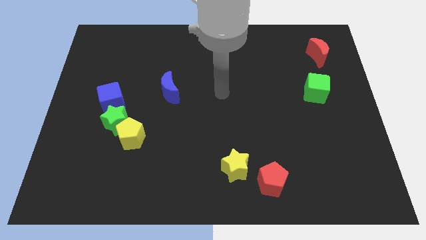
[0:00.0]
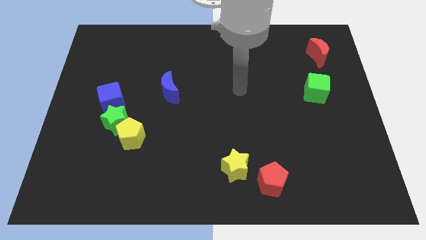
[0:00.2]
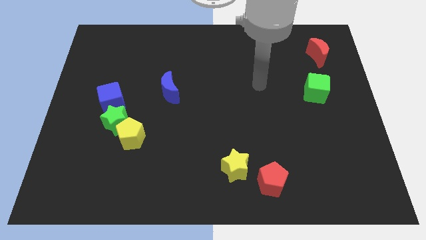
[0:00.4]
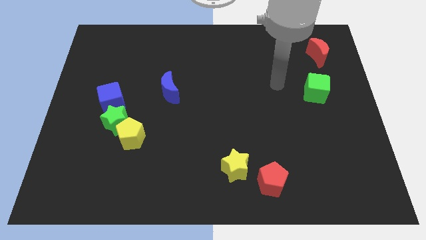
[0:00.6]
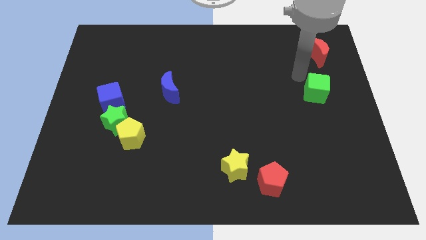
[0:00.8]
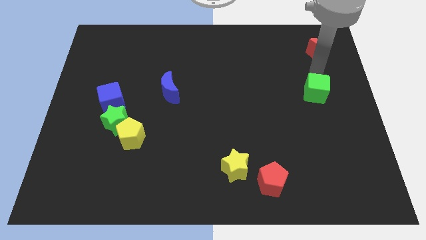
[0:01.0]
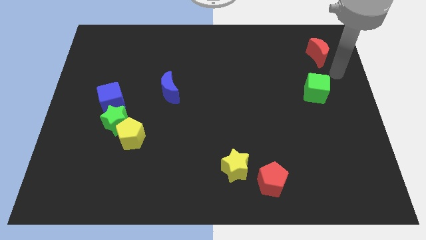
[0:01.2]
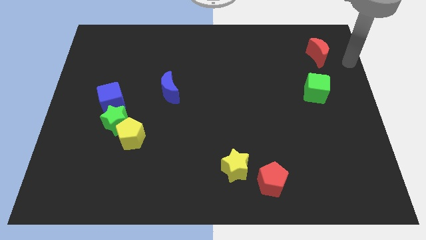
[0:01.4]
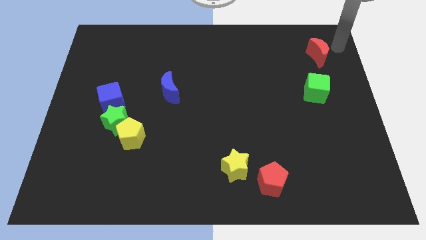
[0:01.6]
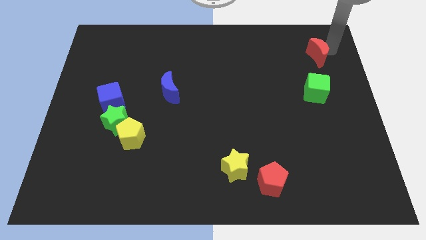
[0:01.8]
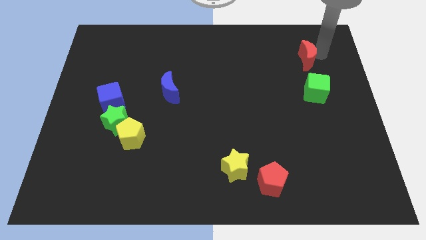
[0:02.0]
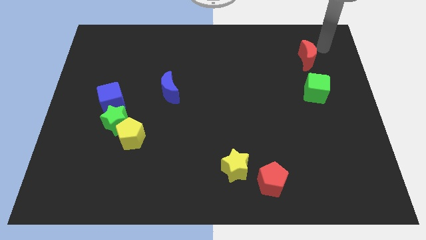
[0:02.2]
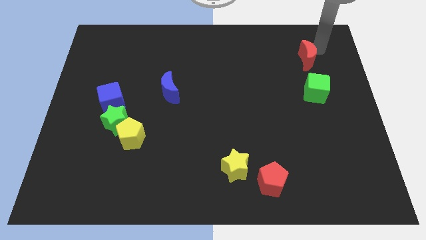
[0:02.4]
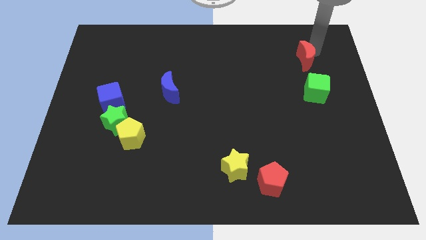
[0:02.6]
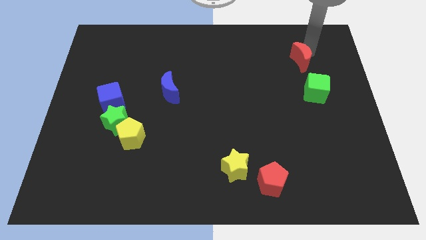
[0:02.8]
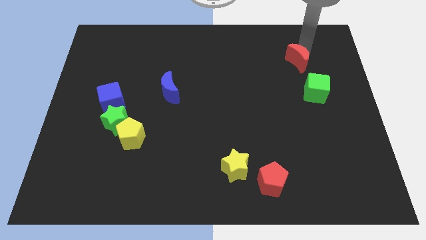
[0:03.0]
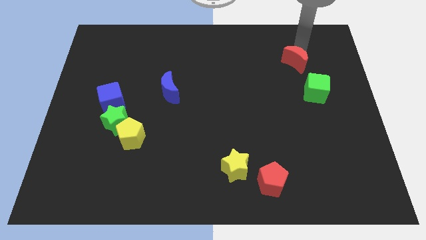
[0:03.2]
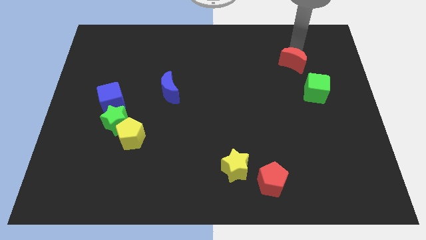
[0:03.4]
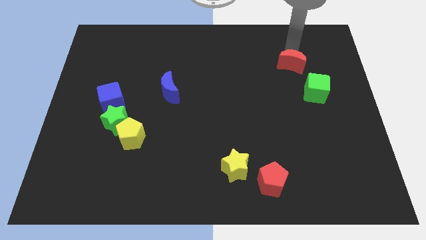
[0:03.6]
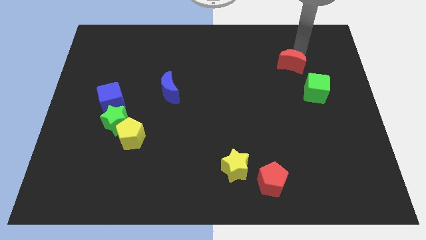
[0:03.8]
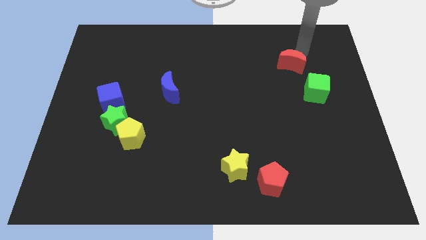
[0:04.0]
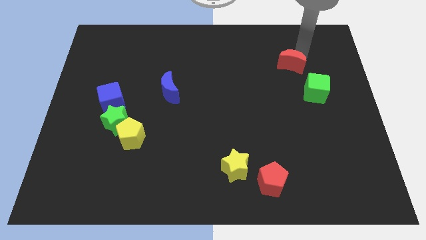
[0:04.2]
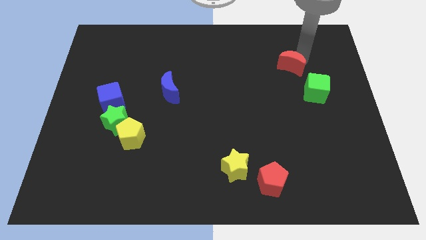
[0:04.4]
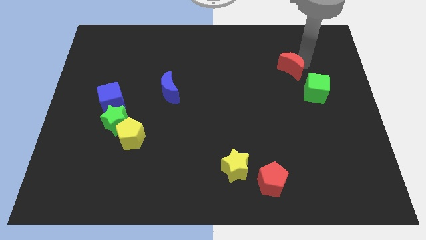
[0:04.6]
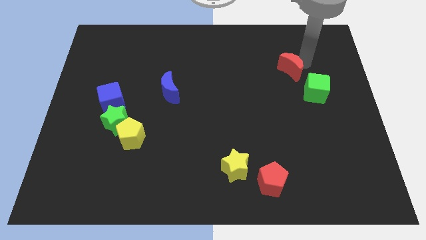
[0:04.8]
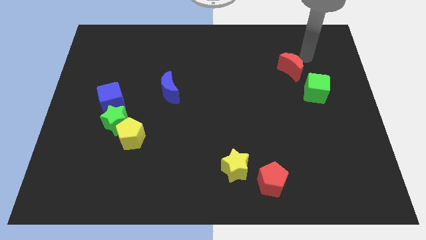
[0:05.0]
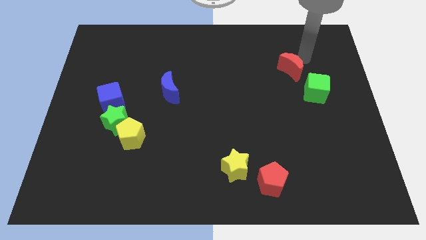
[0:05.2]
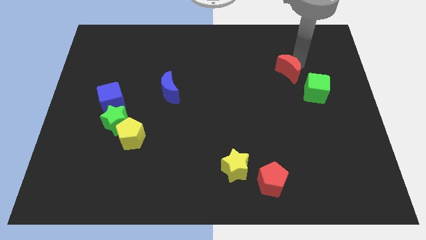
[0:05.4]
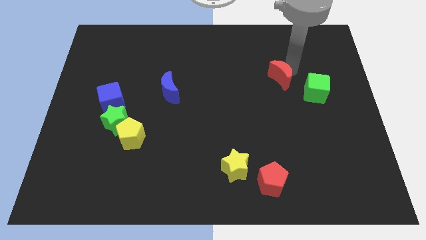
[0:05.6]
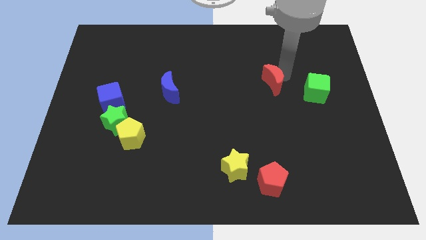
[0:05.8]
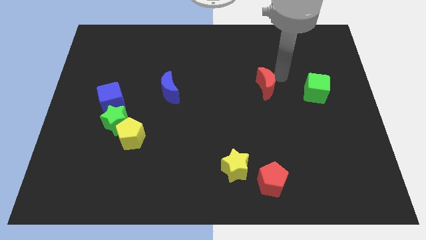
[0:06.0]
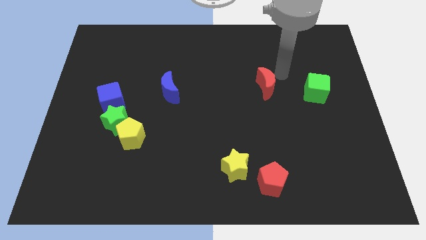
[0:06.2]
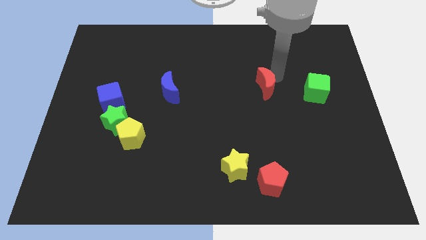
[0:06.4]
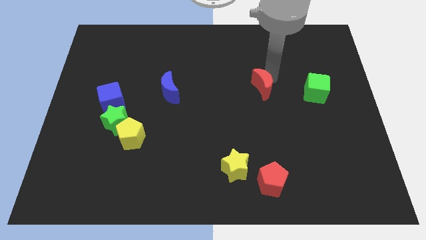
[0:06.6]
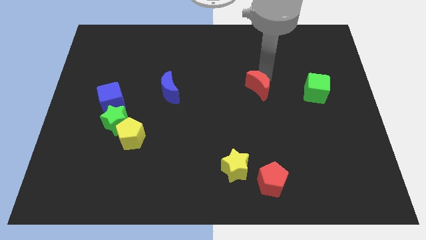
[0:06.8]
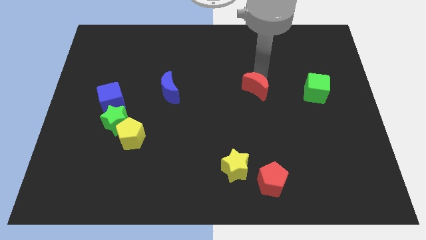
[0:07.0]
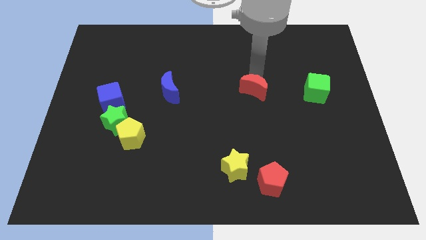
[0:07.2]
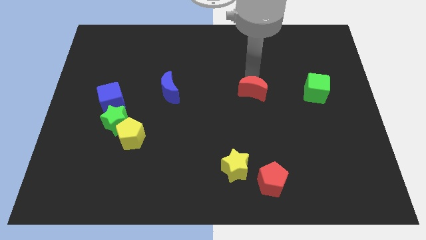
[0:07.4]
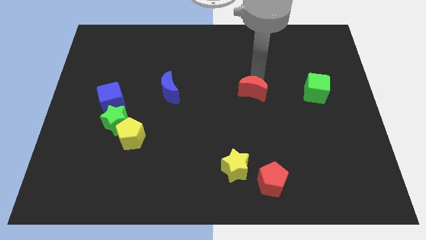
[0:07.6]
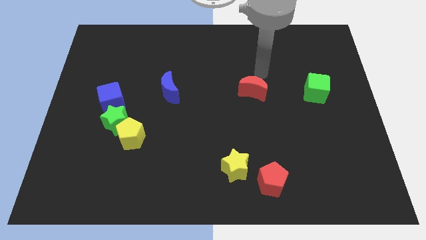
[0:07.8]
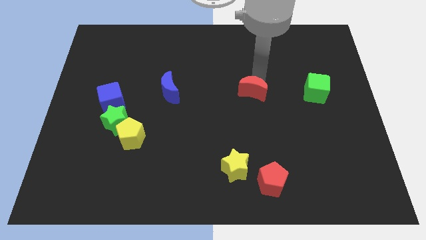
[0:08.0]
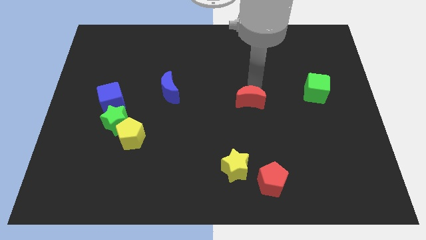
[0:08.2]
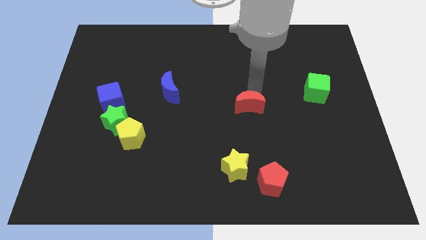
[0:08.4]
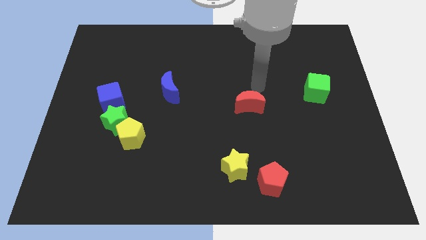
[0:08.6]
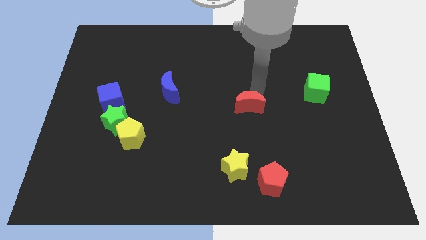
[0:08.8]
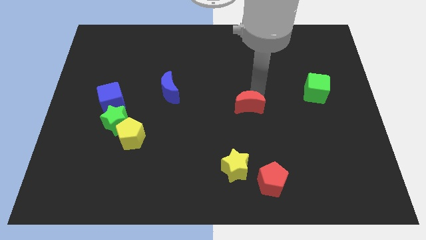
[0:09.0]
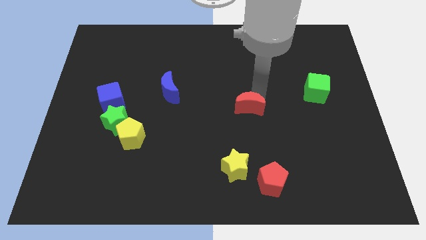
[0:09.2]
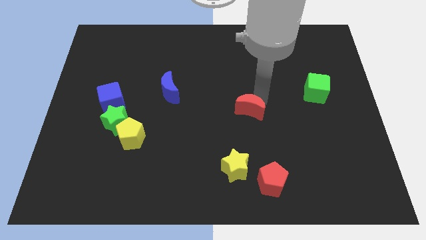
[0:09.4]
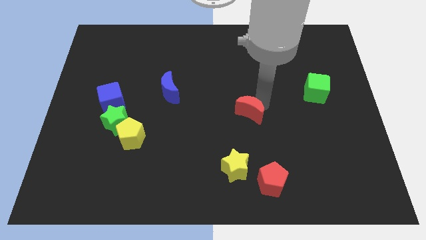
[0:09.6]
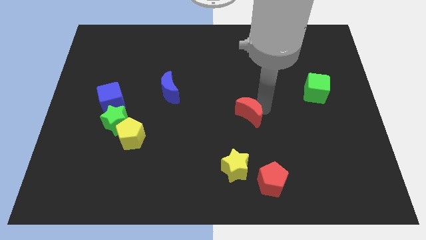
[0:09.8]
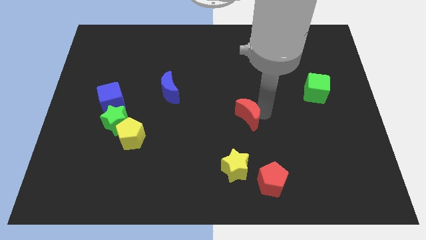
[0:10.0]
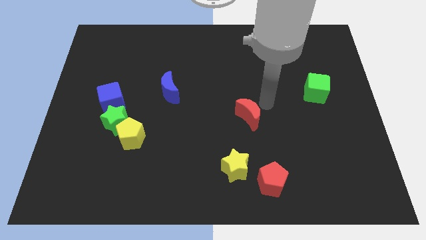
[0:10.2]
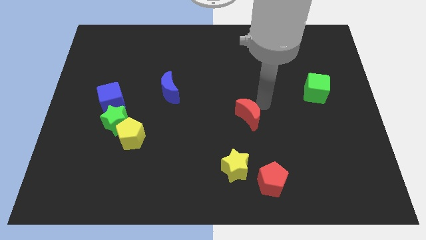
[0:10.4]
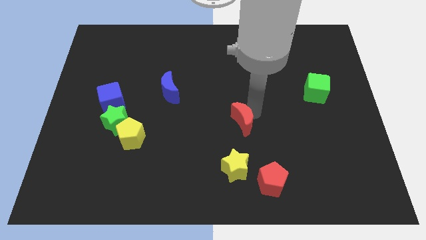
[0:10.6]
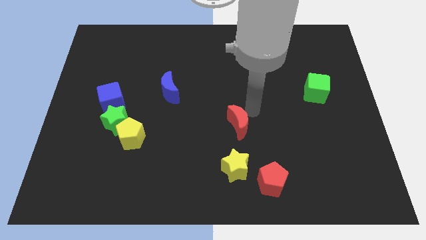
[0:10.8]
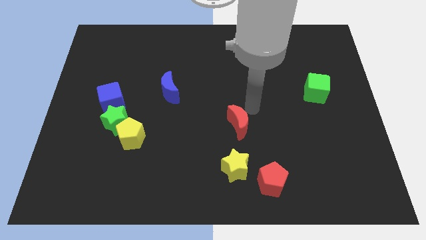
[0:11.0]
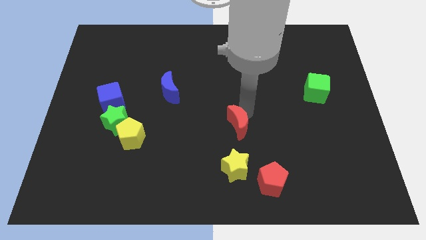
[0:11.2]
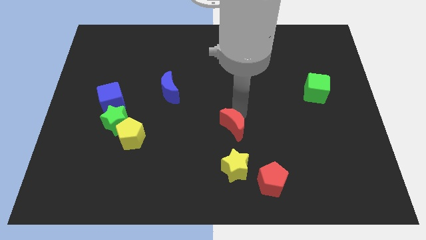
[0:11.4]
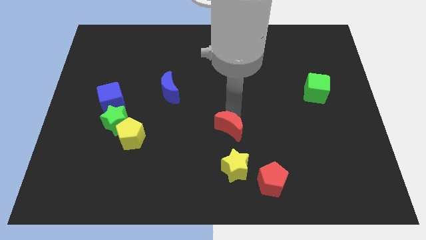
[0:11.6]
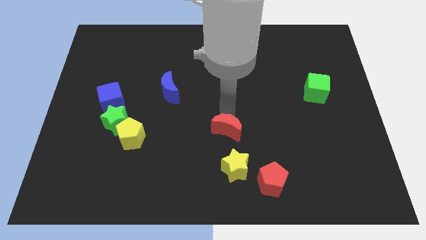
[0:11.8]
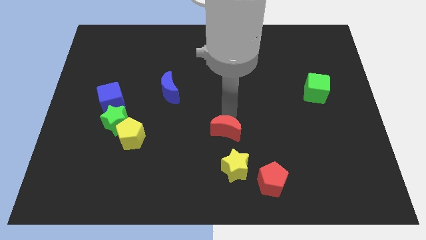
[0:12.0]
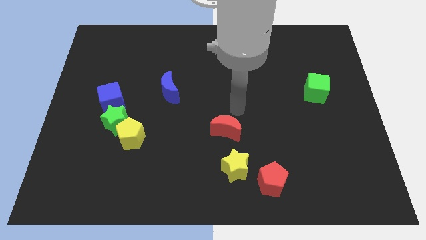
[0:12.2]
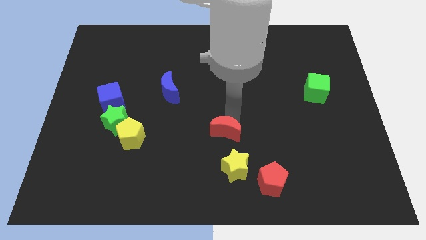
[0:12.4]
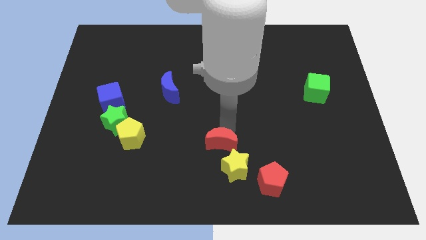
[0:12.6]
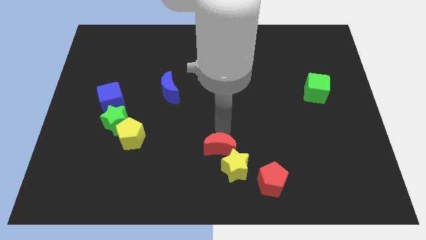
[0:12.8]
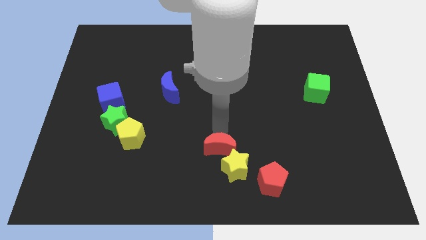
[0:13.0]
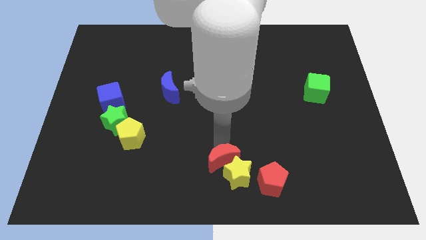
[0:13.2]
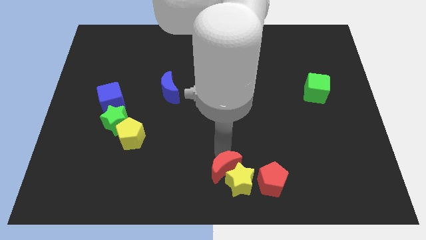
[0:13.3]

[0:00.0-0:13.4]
push the red moon to the left of the red pentagon
